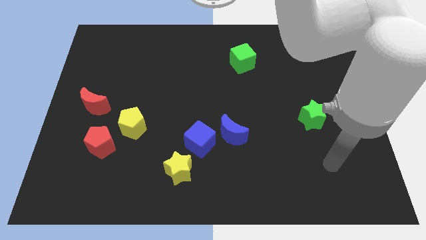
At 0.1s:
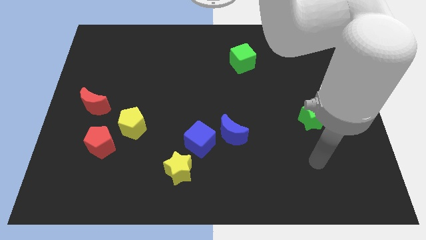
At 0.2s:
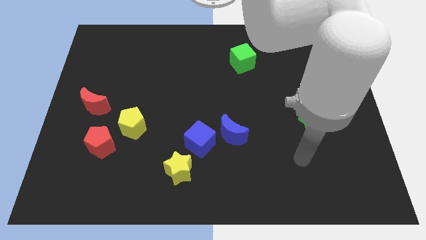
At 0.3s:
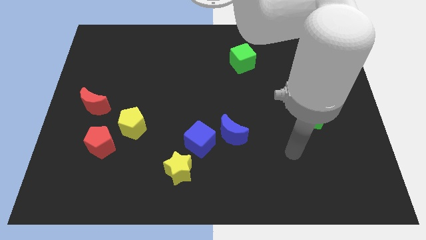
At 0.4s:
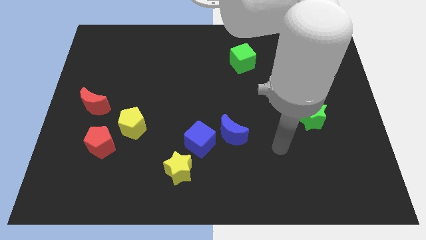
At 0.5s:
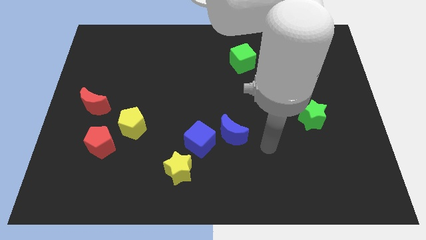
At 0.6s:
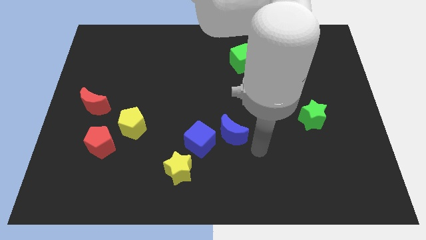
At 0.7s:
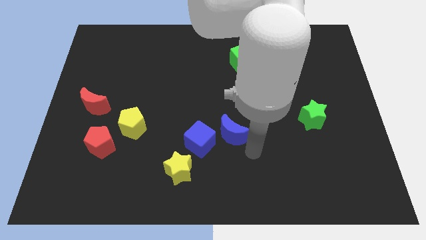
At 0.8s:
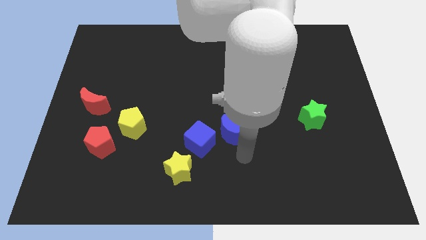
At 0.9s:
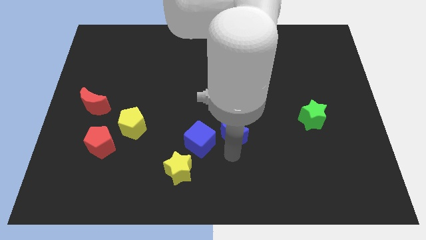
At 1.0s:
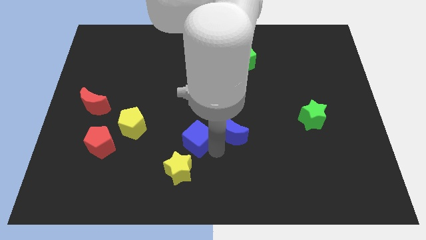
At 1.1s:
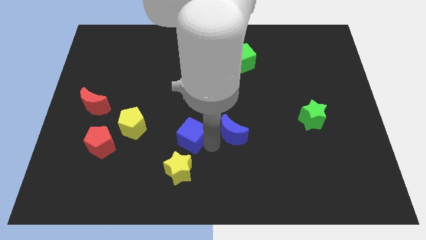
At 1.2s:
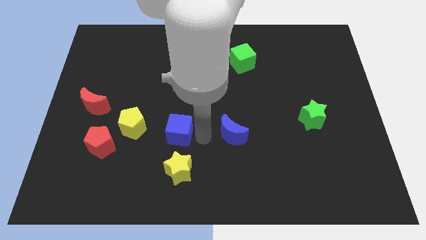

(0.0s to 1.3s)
pull the blue moon apart from the blue cube

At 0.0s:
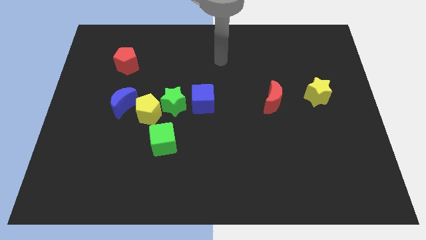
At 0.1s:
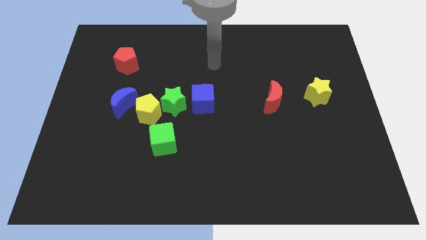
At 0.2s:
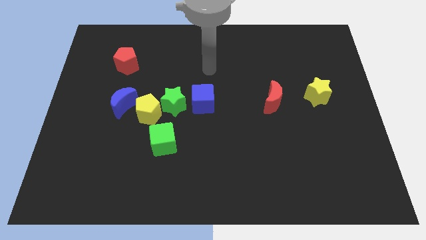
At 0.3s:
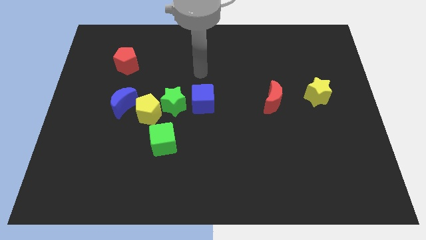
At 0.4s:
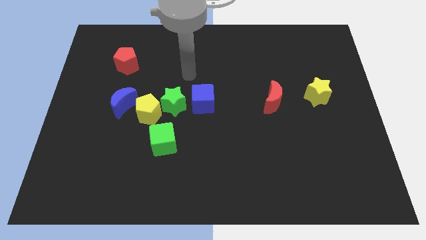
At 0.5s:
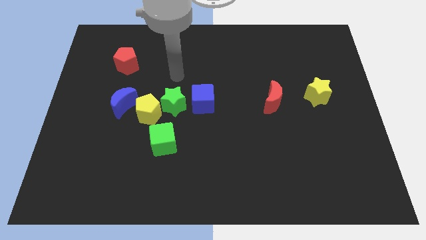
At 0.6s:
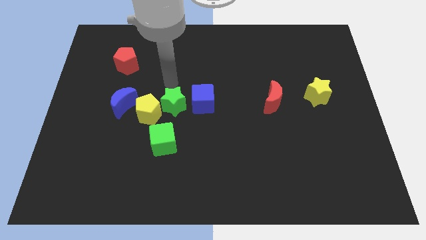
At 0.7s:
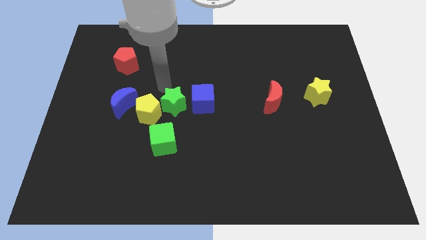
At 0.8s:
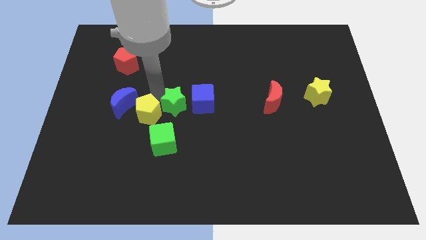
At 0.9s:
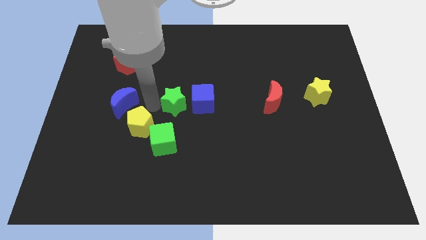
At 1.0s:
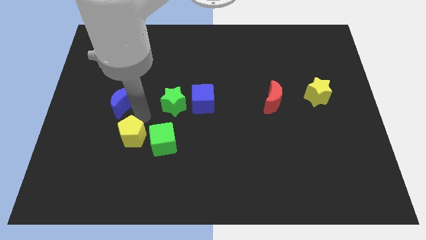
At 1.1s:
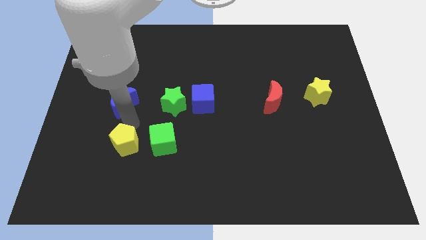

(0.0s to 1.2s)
pull the blue moon apart from the yellow pentagon

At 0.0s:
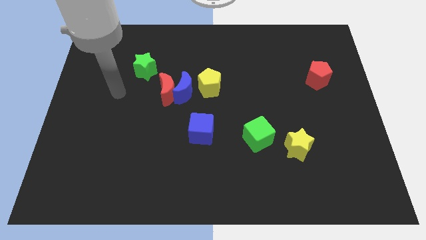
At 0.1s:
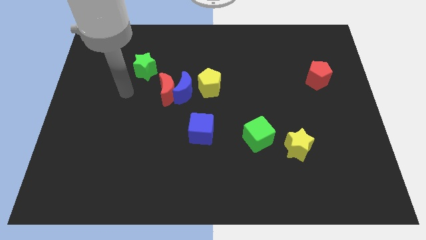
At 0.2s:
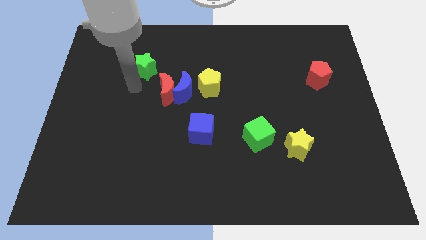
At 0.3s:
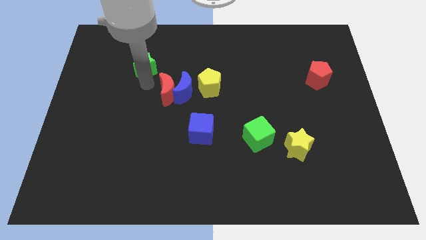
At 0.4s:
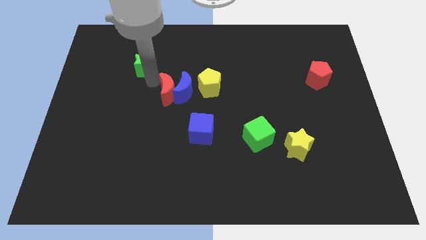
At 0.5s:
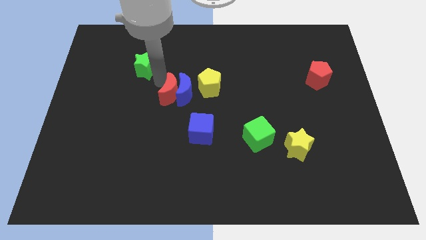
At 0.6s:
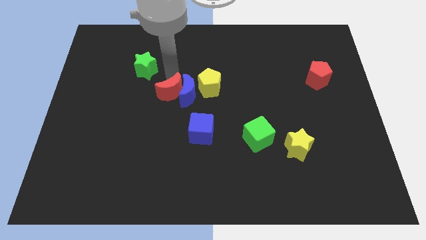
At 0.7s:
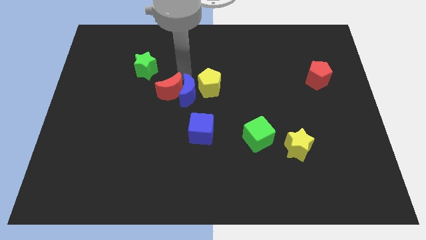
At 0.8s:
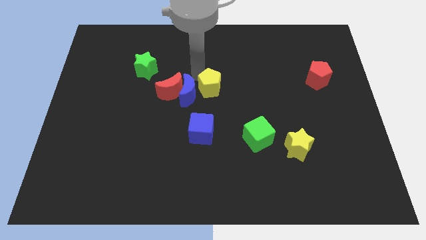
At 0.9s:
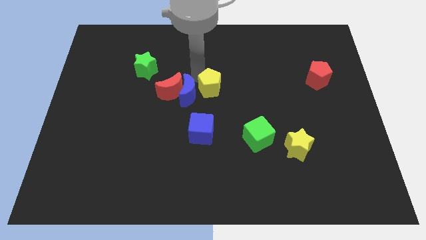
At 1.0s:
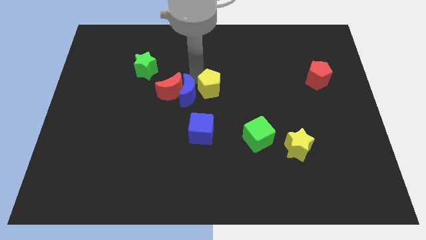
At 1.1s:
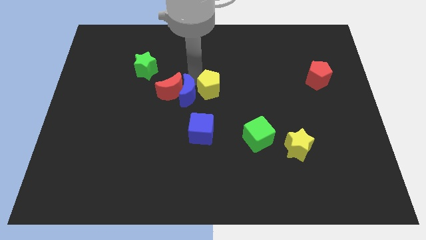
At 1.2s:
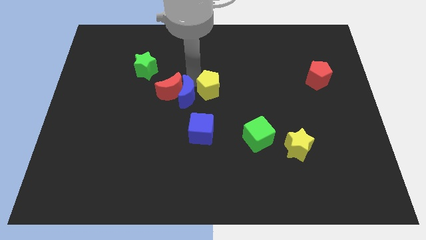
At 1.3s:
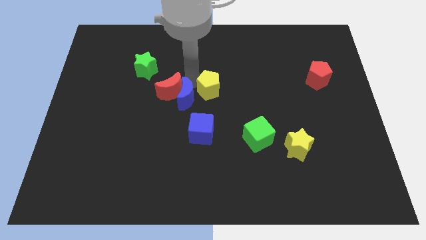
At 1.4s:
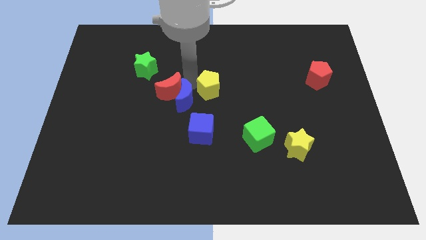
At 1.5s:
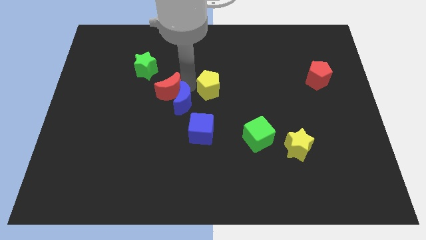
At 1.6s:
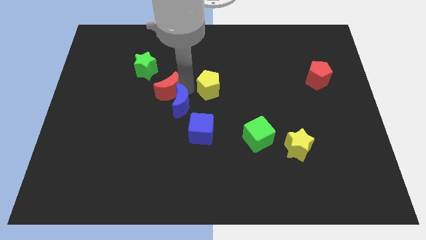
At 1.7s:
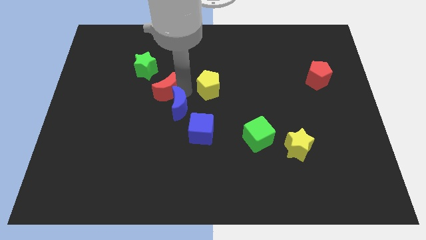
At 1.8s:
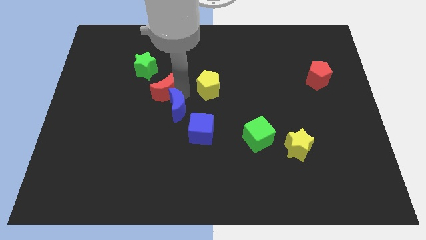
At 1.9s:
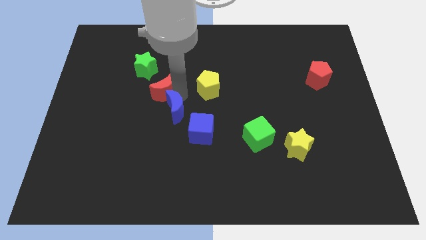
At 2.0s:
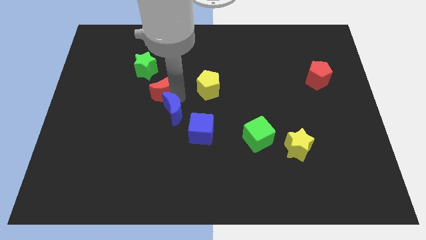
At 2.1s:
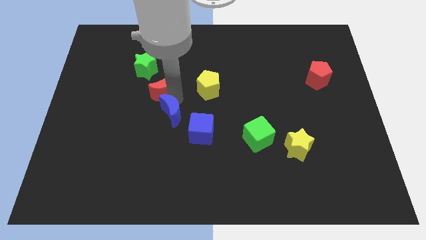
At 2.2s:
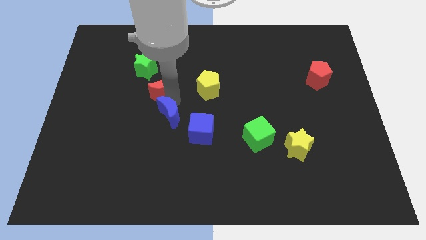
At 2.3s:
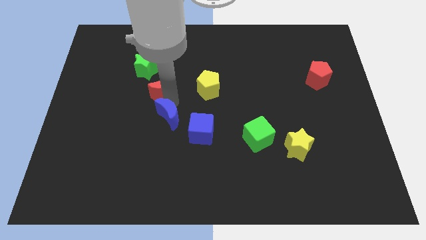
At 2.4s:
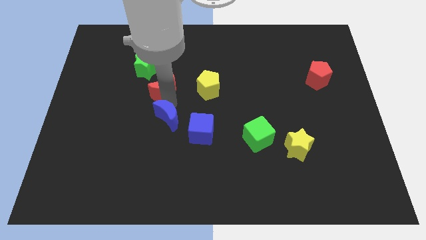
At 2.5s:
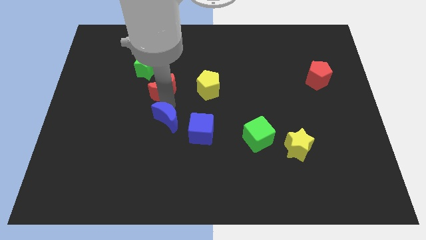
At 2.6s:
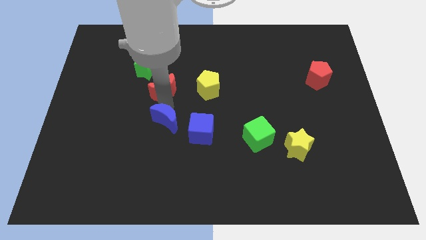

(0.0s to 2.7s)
separate the blue moon from the red moon and yellow pentagon

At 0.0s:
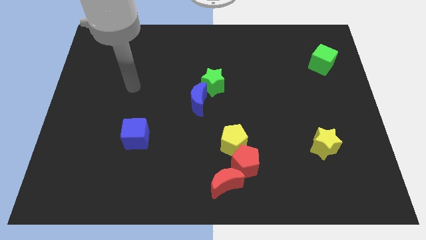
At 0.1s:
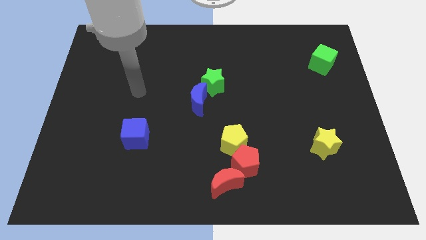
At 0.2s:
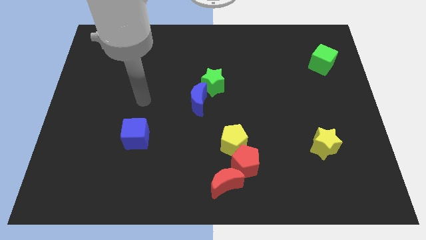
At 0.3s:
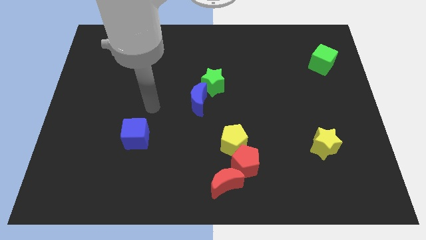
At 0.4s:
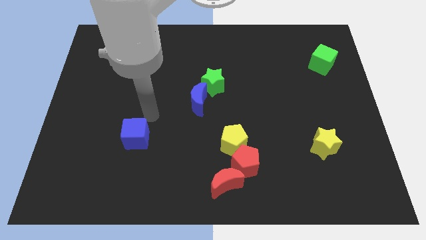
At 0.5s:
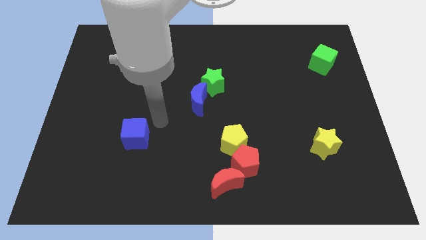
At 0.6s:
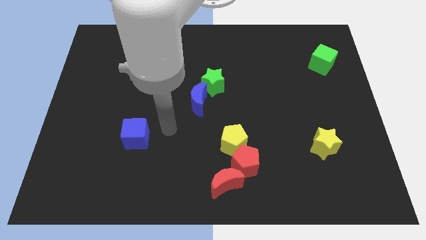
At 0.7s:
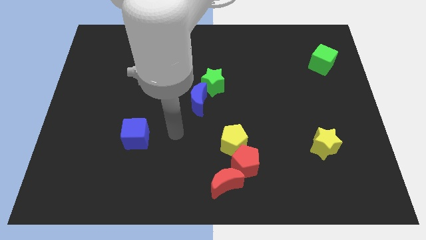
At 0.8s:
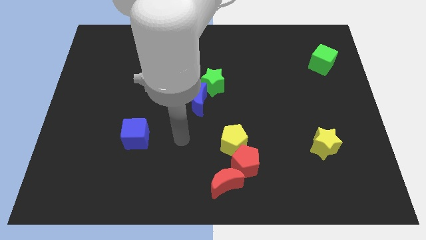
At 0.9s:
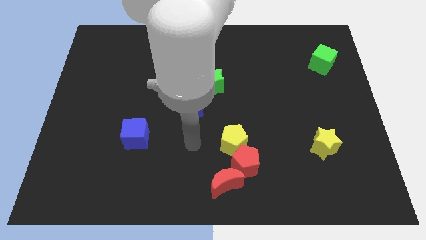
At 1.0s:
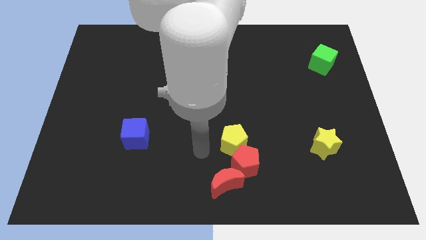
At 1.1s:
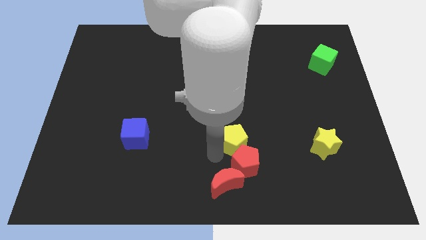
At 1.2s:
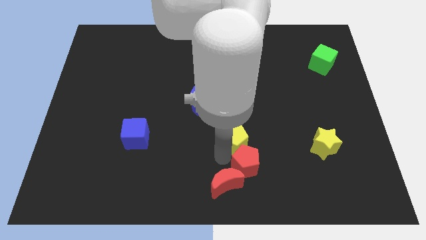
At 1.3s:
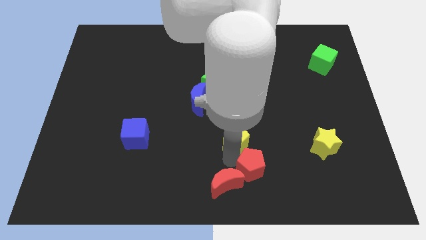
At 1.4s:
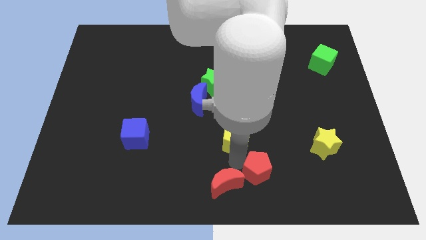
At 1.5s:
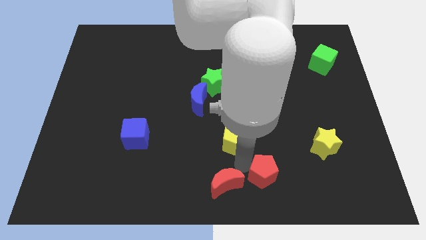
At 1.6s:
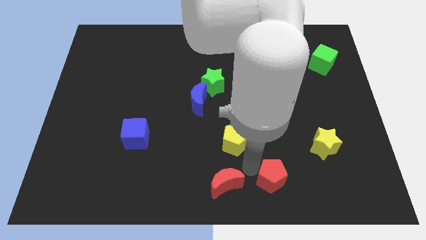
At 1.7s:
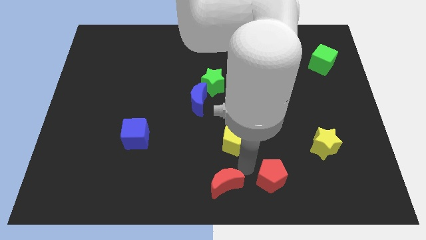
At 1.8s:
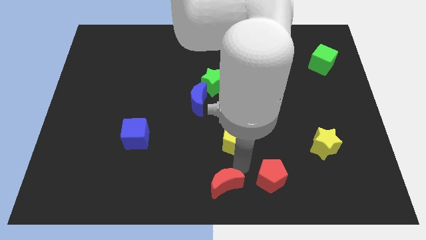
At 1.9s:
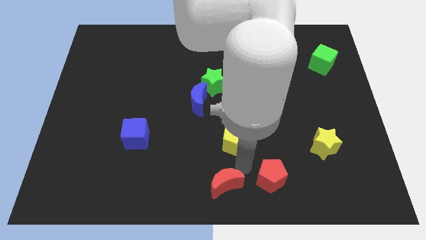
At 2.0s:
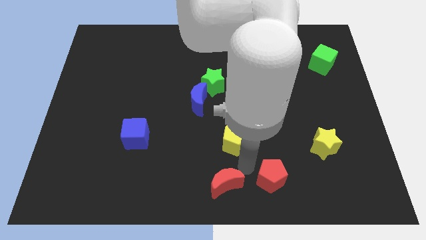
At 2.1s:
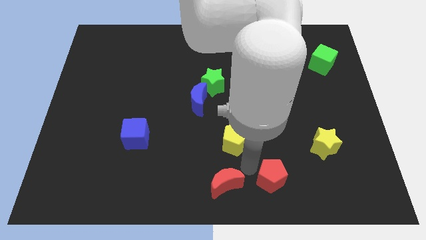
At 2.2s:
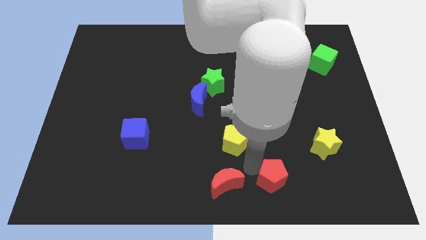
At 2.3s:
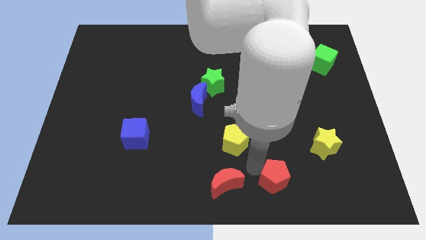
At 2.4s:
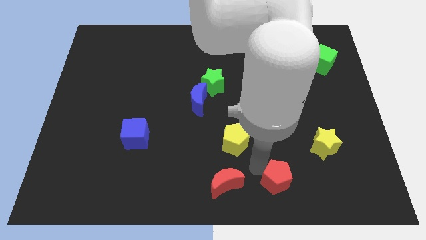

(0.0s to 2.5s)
separate the red pentagon from the yellow pentagon and red moon

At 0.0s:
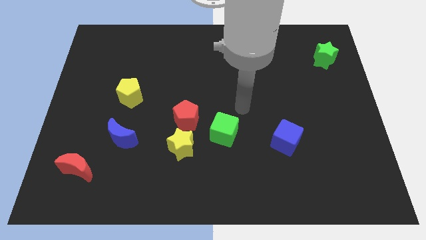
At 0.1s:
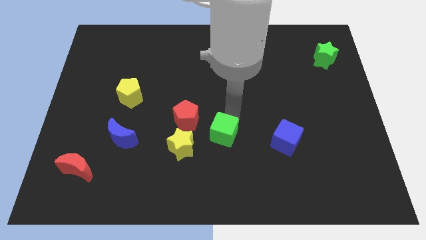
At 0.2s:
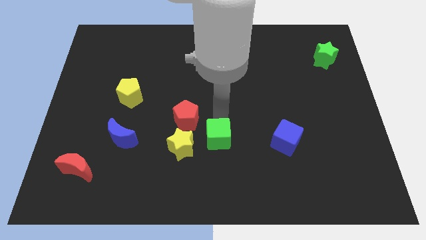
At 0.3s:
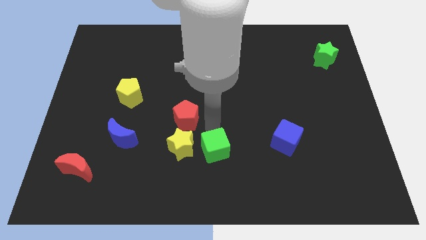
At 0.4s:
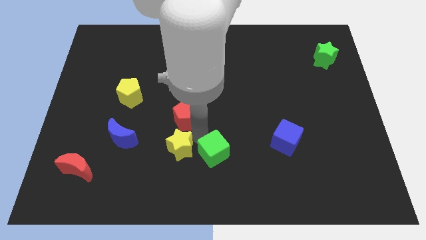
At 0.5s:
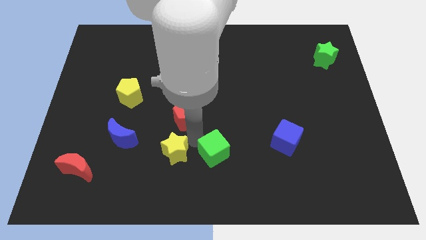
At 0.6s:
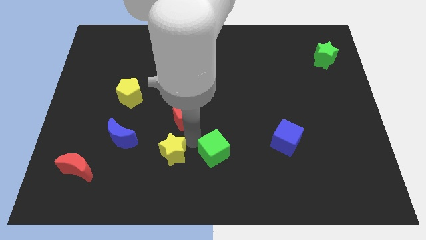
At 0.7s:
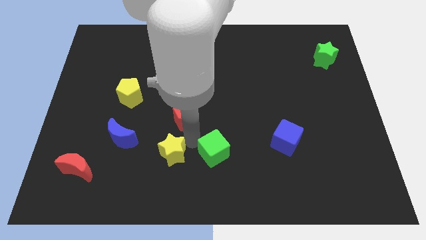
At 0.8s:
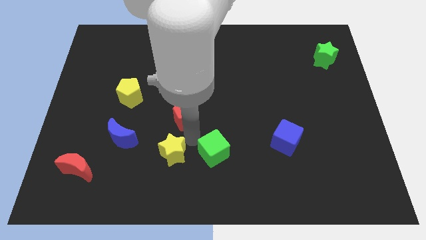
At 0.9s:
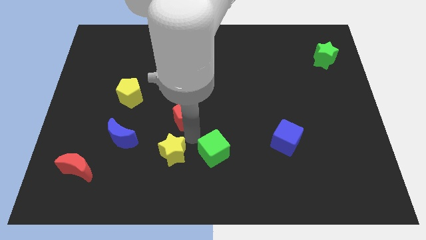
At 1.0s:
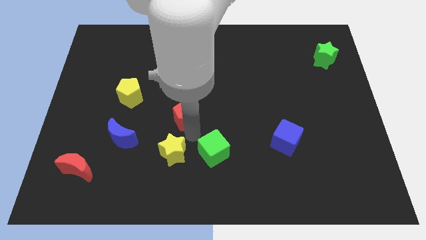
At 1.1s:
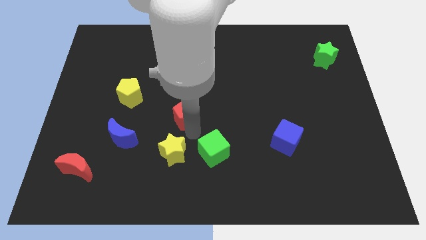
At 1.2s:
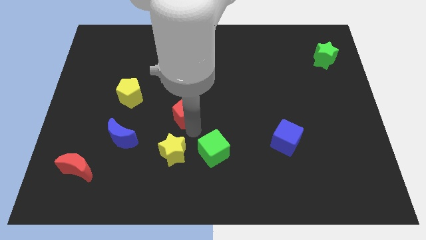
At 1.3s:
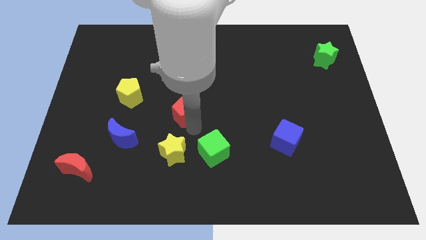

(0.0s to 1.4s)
pull the red pentagon apart from the yellow star and green cube
